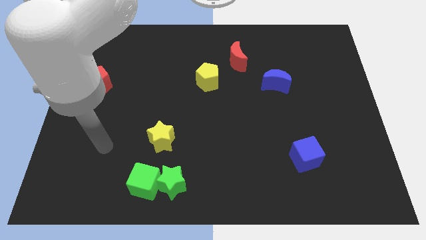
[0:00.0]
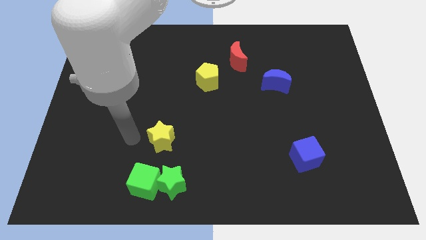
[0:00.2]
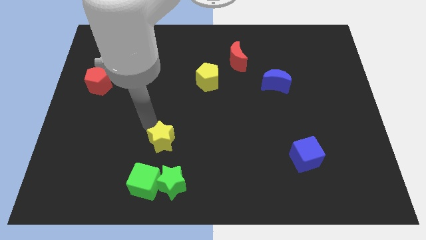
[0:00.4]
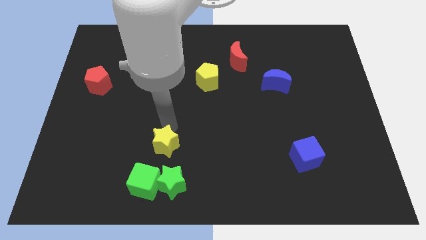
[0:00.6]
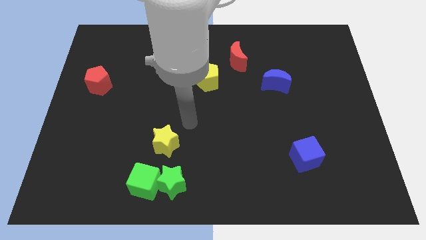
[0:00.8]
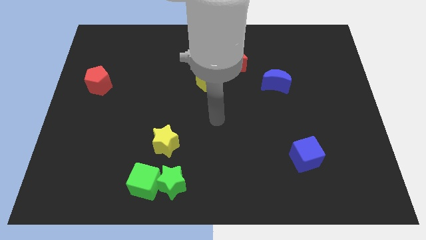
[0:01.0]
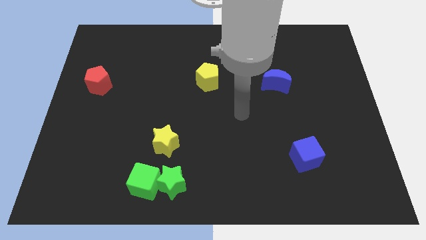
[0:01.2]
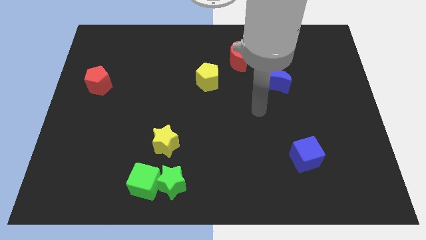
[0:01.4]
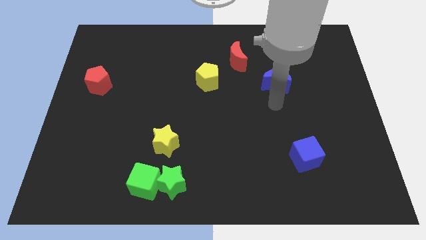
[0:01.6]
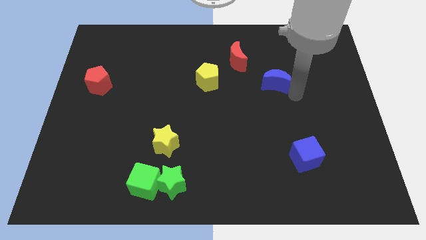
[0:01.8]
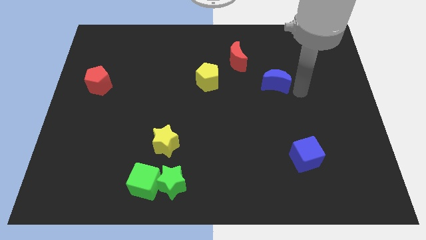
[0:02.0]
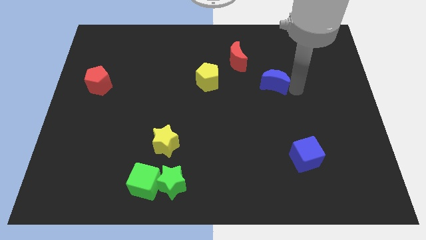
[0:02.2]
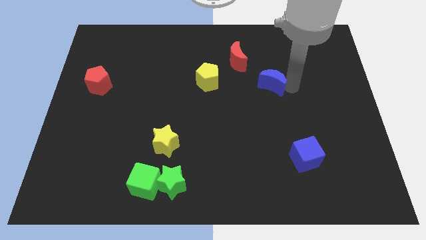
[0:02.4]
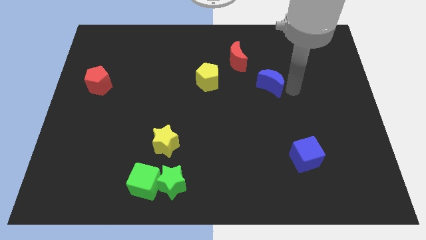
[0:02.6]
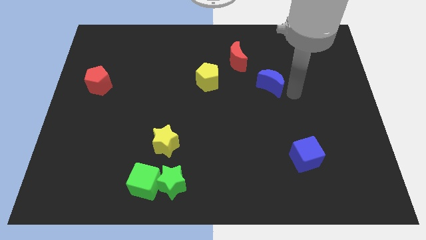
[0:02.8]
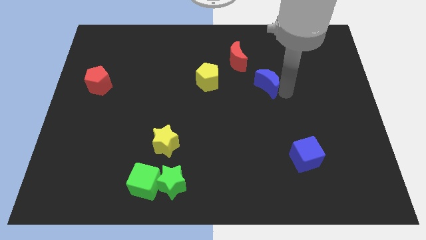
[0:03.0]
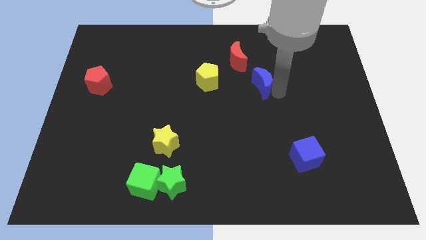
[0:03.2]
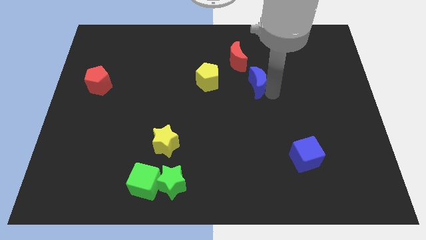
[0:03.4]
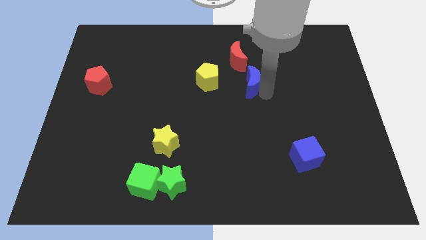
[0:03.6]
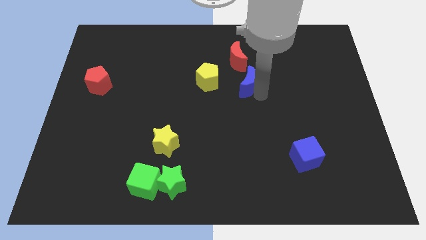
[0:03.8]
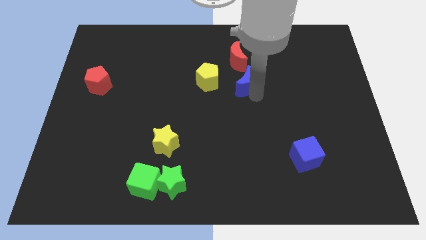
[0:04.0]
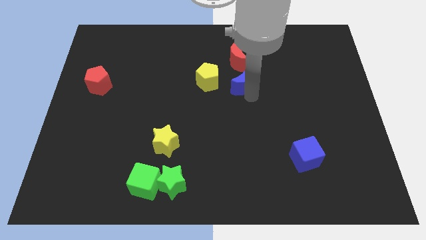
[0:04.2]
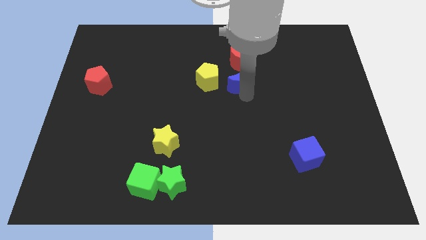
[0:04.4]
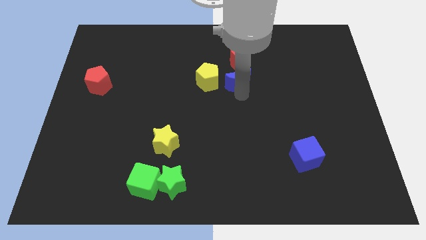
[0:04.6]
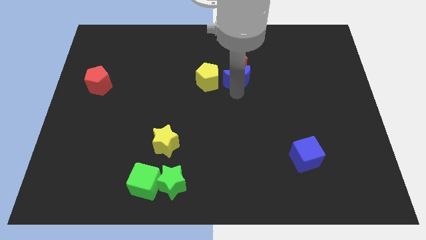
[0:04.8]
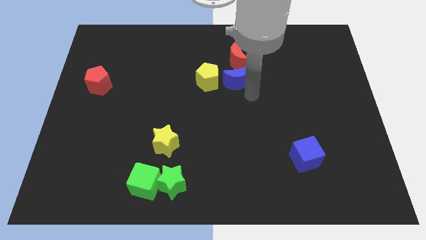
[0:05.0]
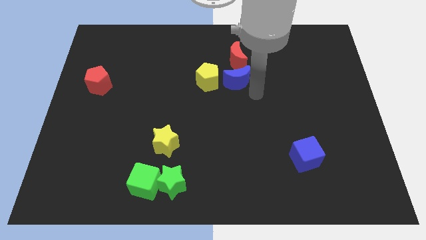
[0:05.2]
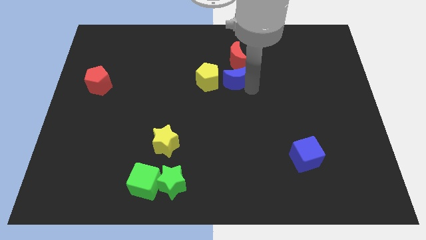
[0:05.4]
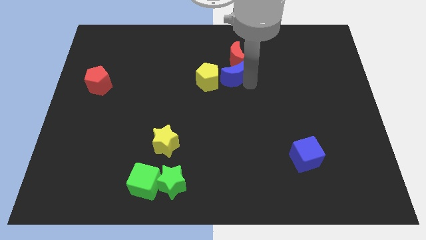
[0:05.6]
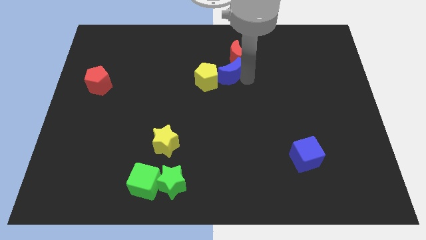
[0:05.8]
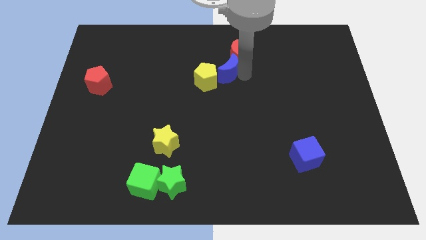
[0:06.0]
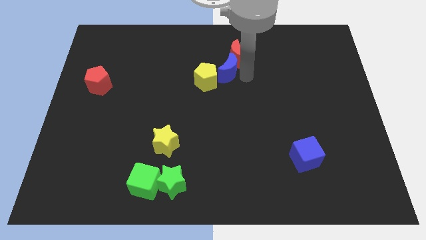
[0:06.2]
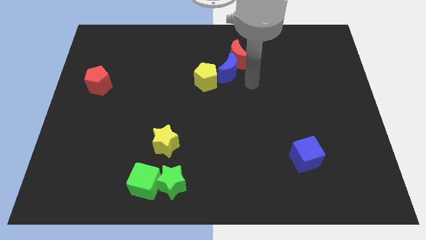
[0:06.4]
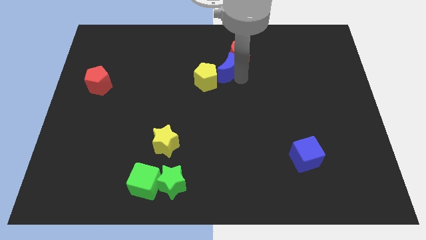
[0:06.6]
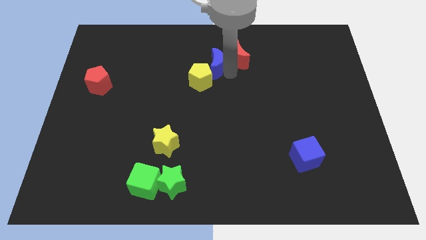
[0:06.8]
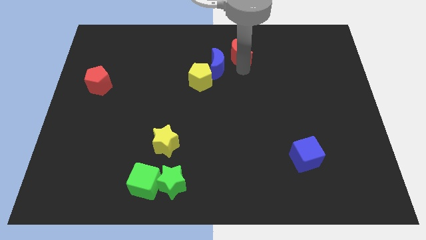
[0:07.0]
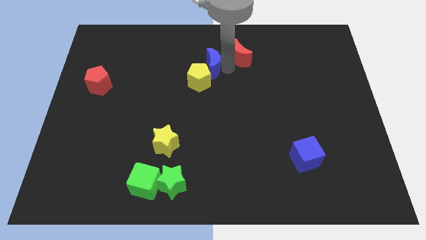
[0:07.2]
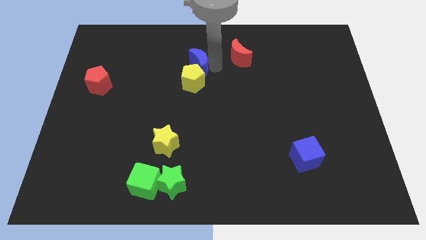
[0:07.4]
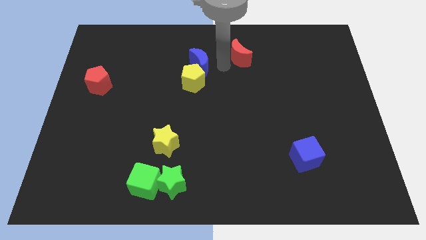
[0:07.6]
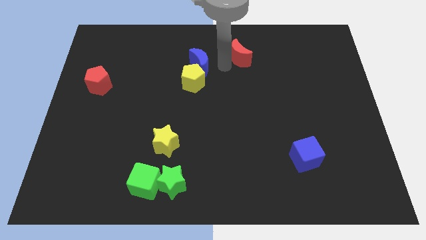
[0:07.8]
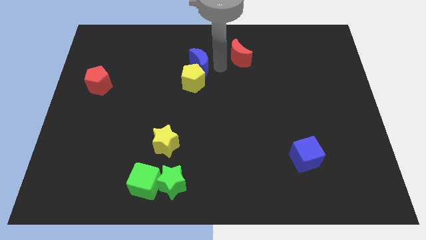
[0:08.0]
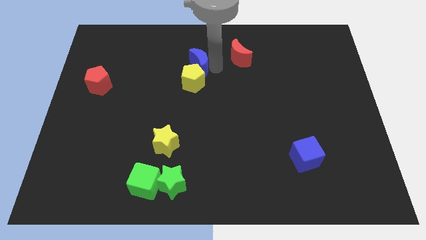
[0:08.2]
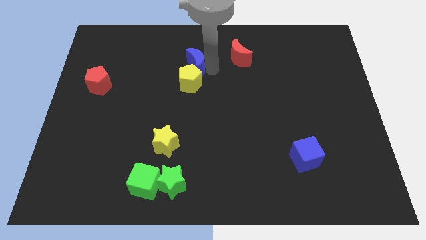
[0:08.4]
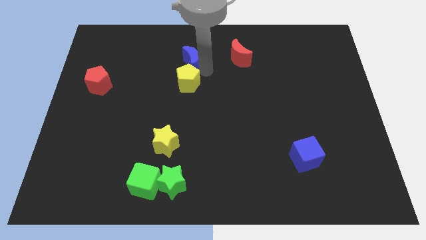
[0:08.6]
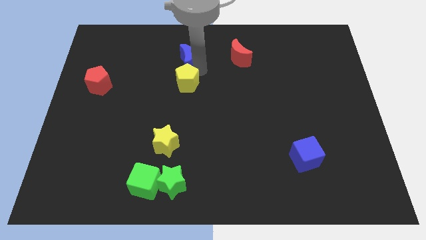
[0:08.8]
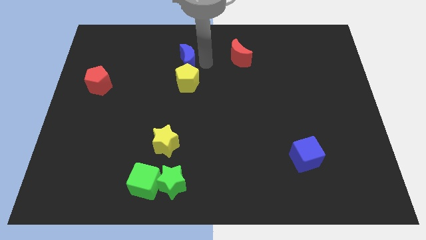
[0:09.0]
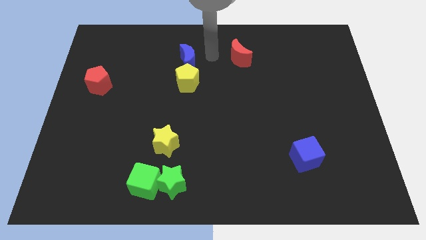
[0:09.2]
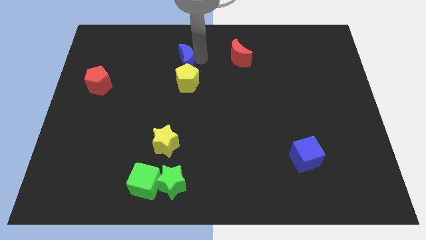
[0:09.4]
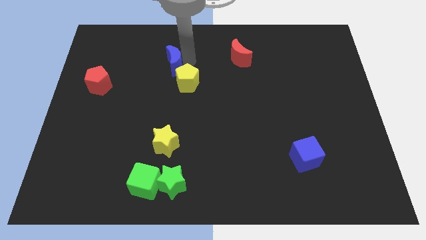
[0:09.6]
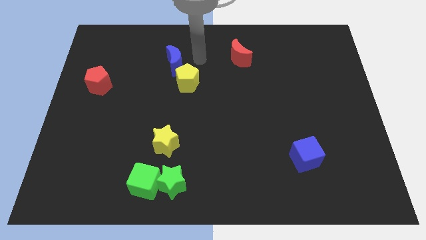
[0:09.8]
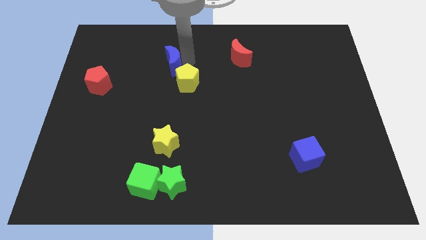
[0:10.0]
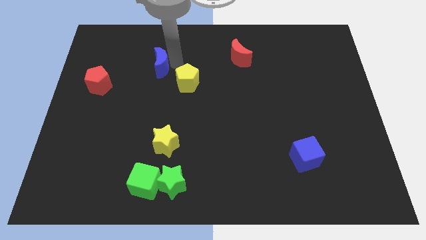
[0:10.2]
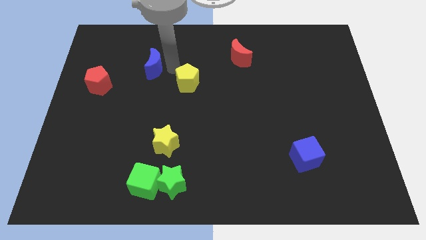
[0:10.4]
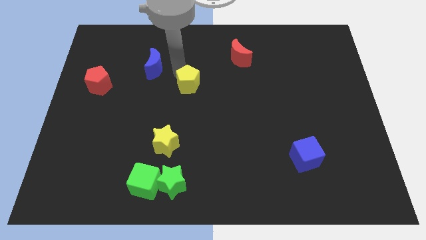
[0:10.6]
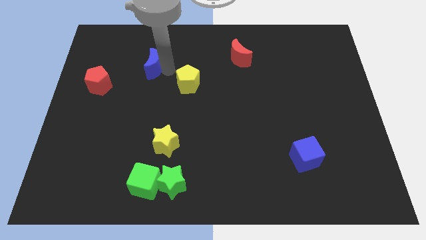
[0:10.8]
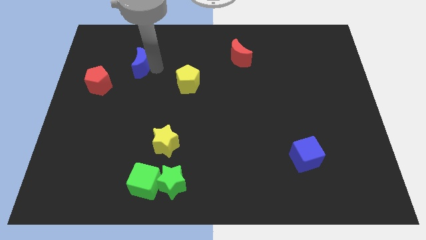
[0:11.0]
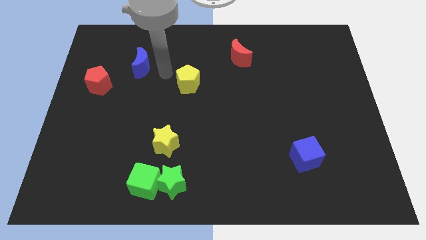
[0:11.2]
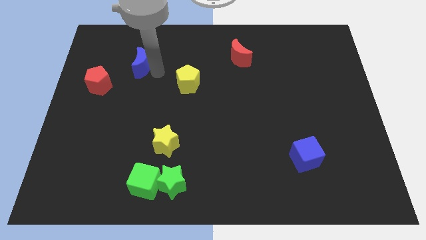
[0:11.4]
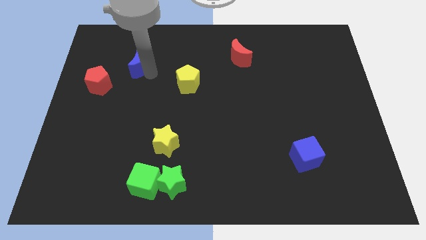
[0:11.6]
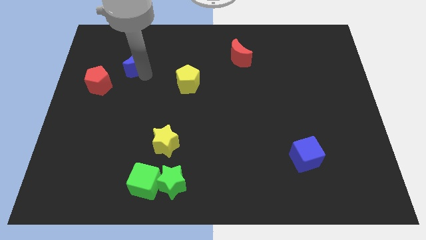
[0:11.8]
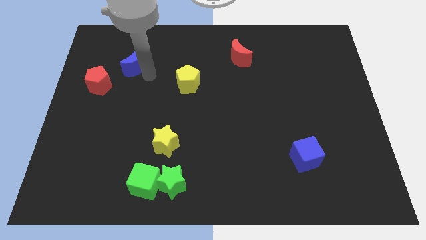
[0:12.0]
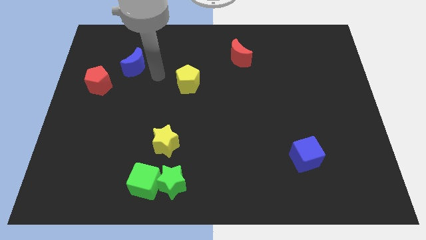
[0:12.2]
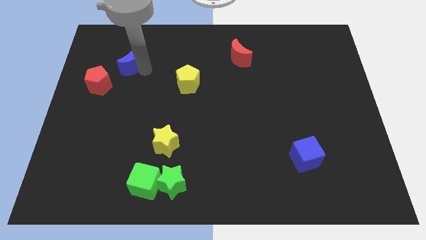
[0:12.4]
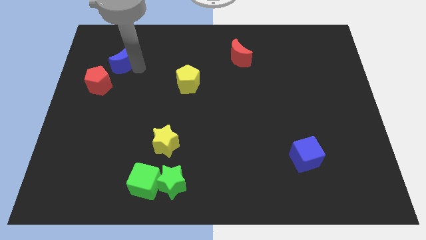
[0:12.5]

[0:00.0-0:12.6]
slide the blue moon to the top side of the red pentagon
